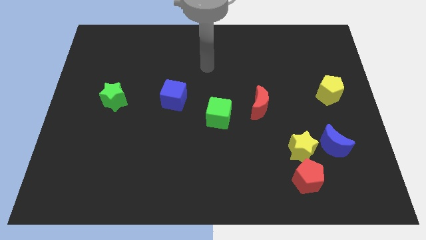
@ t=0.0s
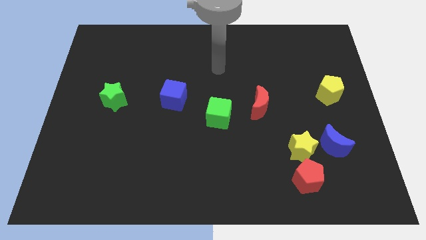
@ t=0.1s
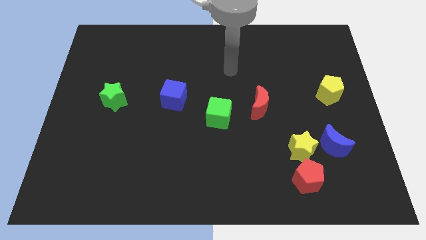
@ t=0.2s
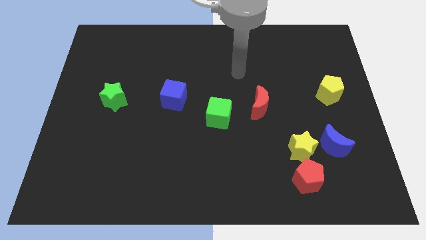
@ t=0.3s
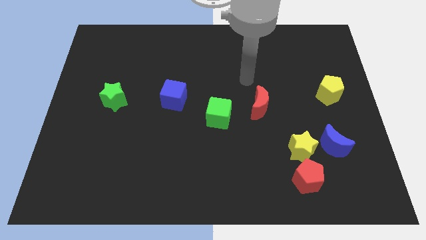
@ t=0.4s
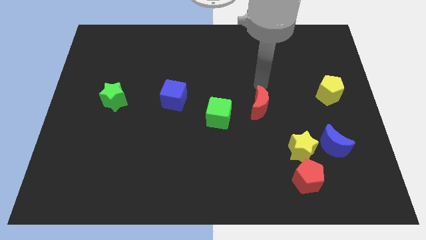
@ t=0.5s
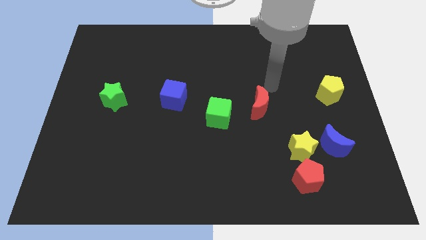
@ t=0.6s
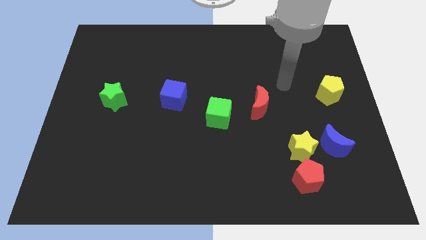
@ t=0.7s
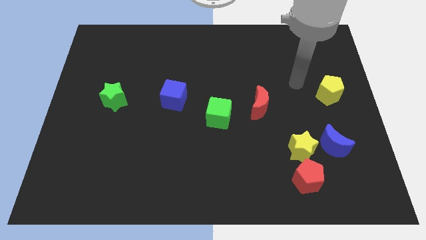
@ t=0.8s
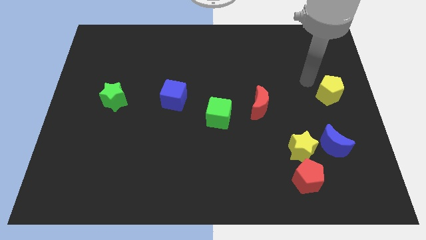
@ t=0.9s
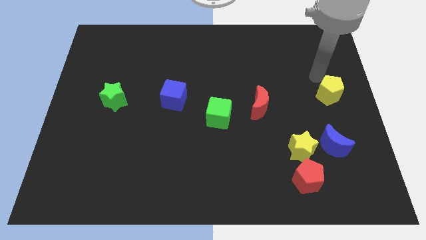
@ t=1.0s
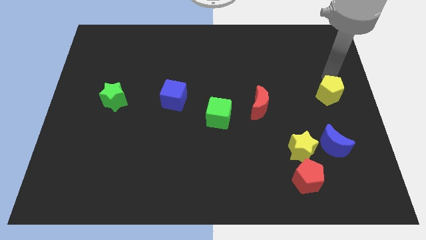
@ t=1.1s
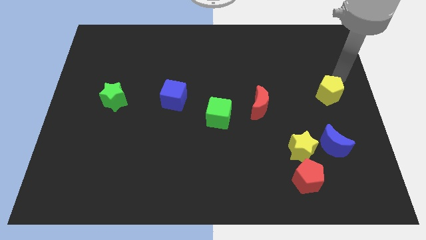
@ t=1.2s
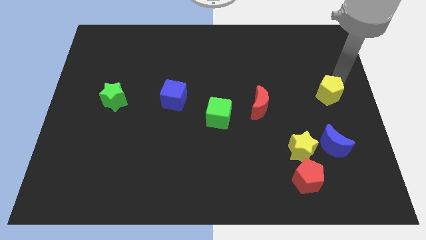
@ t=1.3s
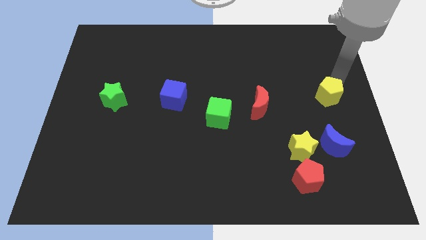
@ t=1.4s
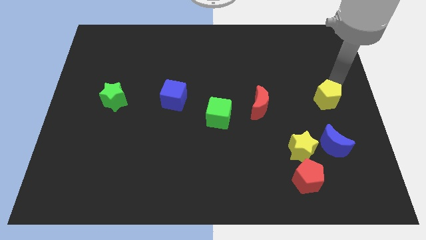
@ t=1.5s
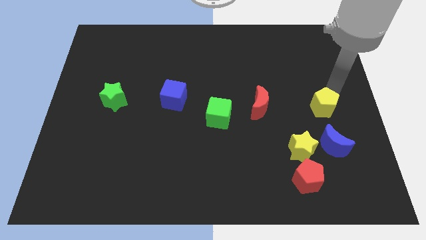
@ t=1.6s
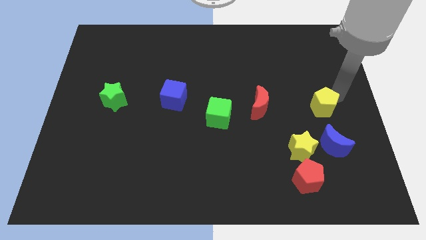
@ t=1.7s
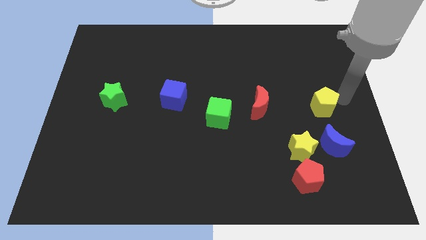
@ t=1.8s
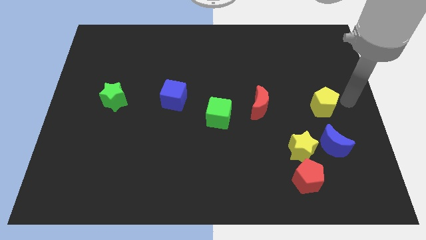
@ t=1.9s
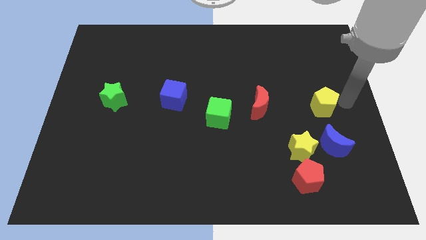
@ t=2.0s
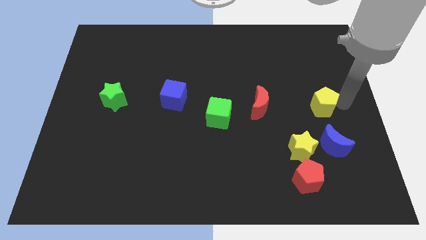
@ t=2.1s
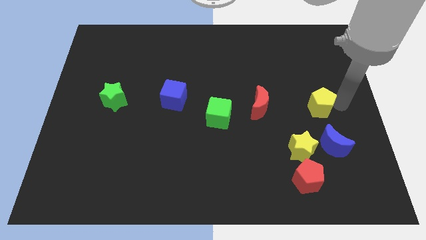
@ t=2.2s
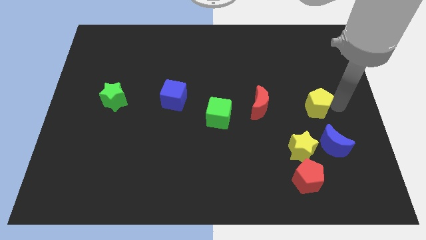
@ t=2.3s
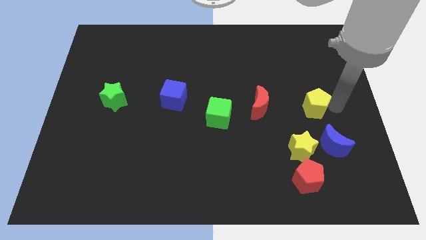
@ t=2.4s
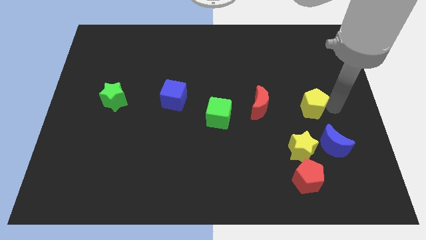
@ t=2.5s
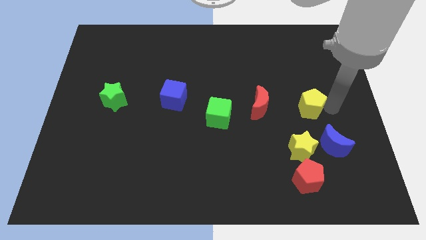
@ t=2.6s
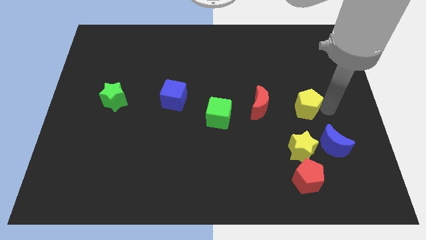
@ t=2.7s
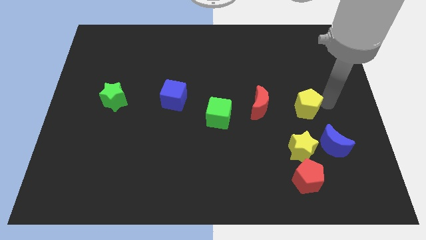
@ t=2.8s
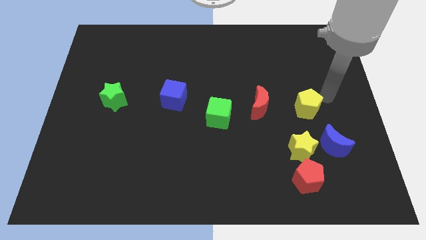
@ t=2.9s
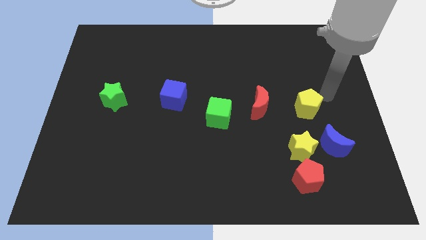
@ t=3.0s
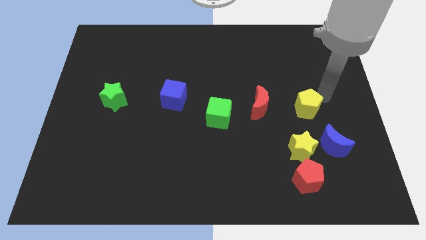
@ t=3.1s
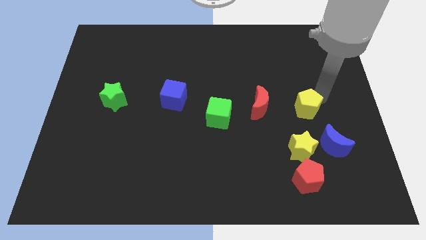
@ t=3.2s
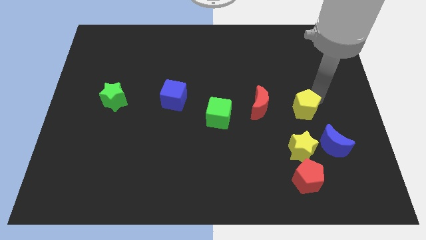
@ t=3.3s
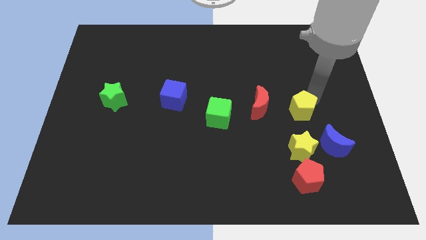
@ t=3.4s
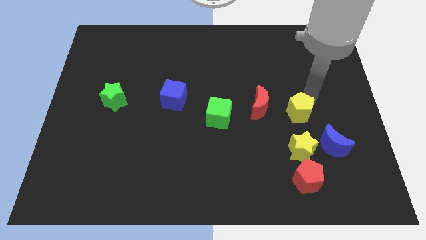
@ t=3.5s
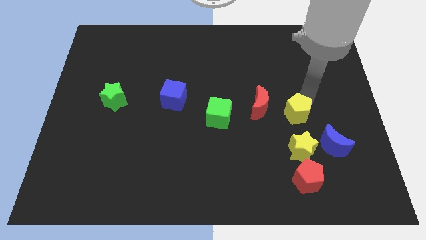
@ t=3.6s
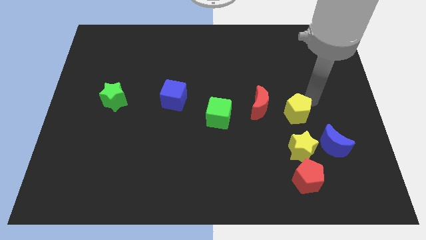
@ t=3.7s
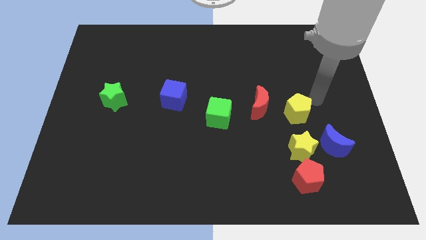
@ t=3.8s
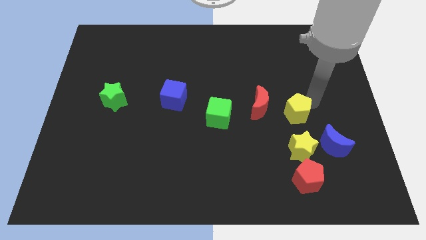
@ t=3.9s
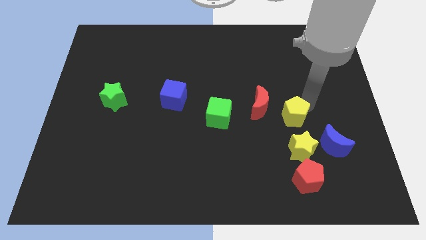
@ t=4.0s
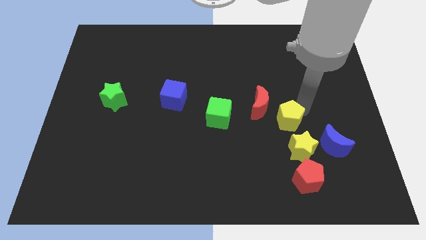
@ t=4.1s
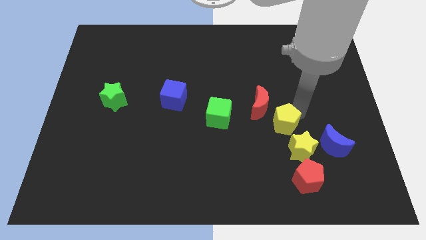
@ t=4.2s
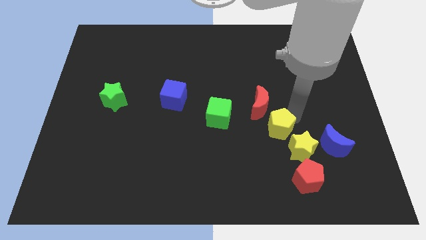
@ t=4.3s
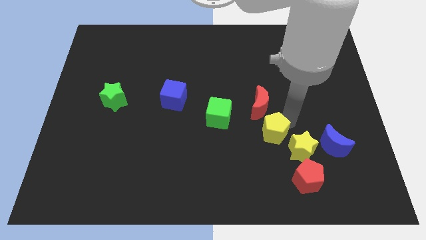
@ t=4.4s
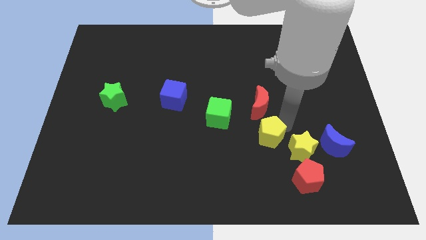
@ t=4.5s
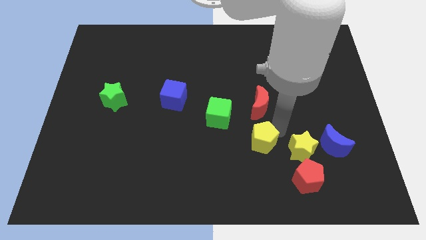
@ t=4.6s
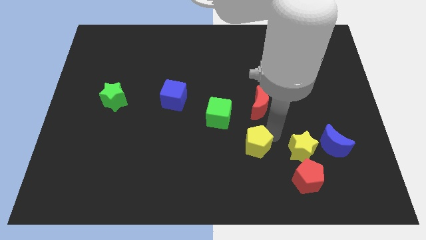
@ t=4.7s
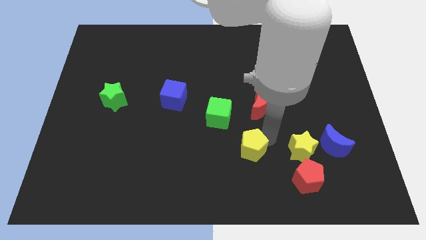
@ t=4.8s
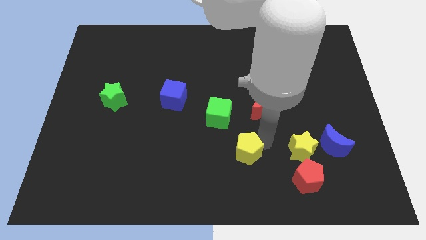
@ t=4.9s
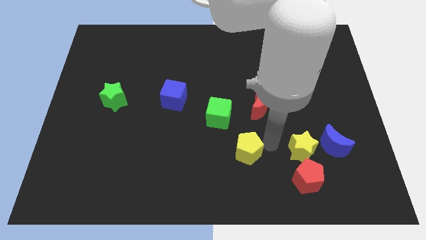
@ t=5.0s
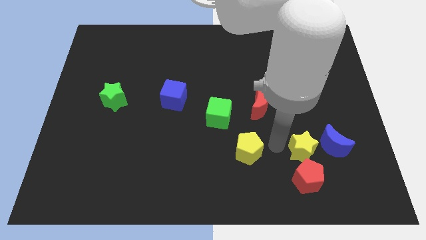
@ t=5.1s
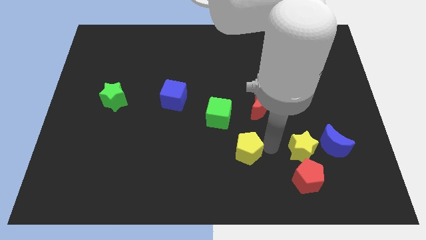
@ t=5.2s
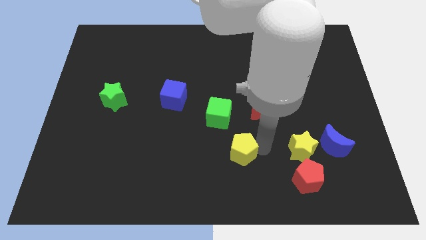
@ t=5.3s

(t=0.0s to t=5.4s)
put the yellow pentagon to the bottom of the green cube

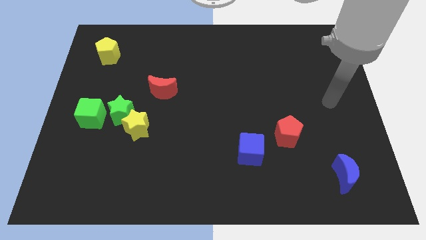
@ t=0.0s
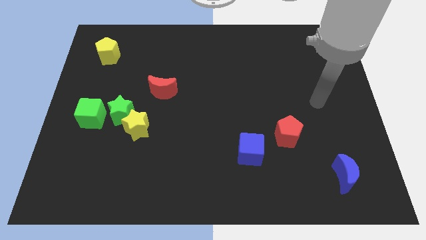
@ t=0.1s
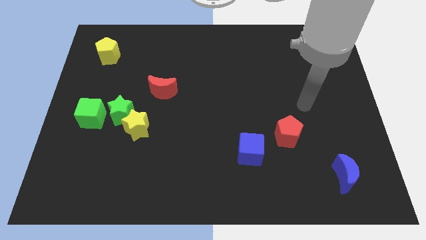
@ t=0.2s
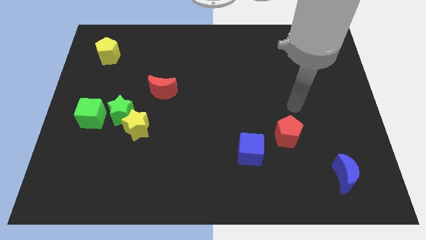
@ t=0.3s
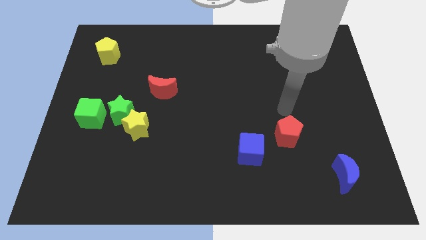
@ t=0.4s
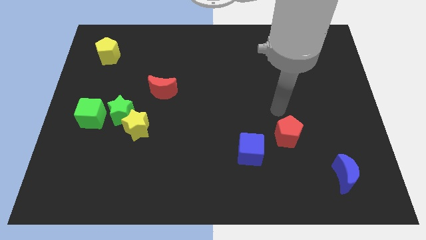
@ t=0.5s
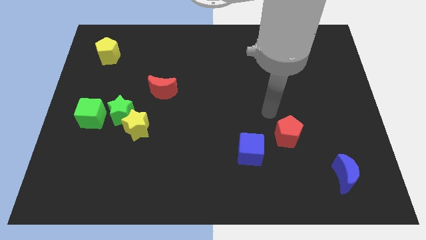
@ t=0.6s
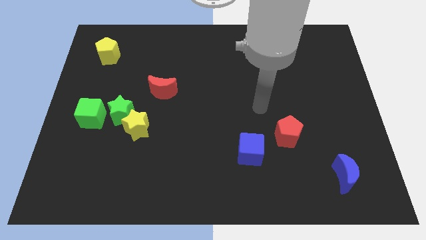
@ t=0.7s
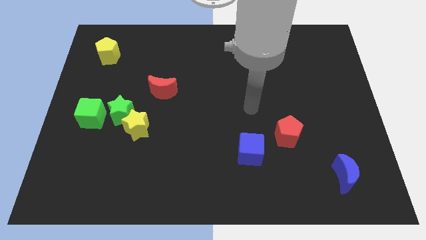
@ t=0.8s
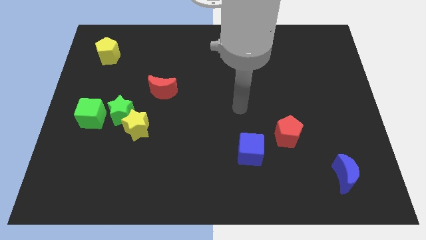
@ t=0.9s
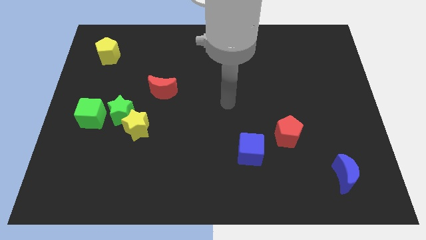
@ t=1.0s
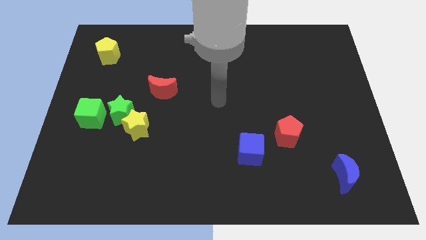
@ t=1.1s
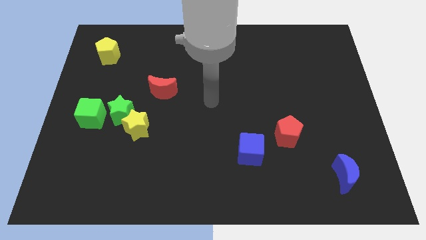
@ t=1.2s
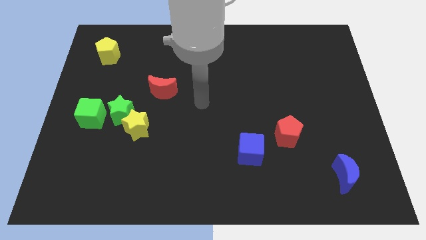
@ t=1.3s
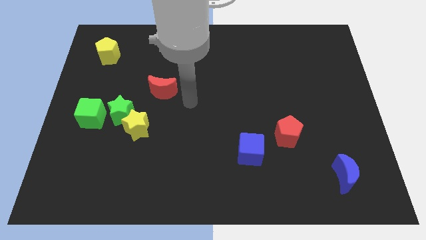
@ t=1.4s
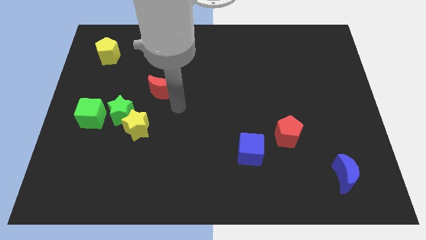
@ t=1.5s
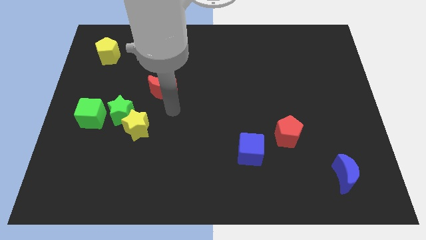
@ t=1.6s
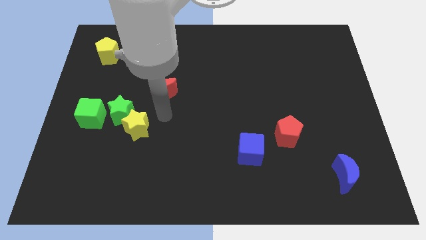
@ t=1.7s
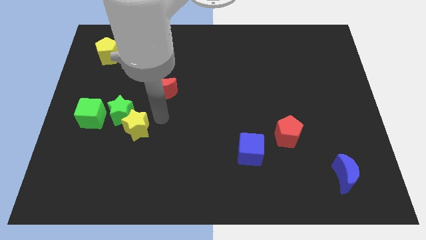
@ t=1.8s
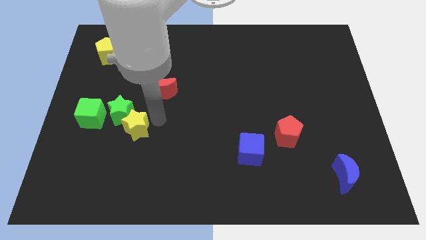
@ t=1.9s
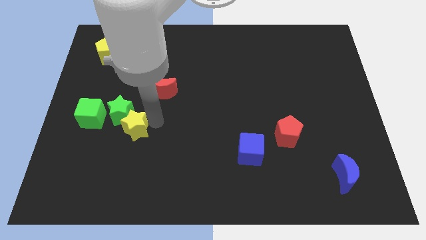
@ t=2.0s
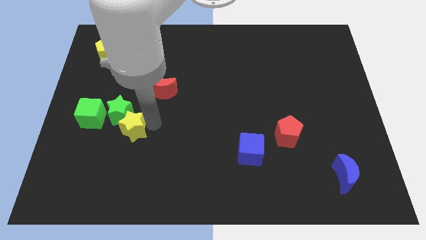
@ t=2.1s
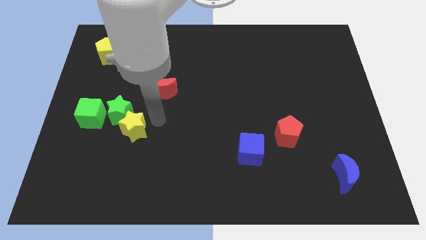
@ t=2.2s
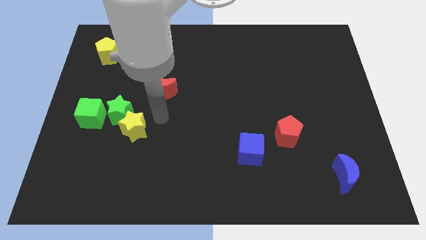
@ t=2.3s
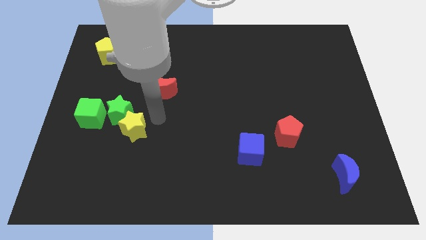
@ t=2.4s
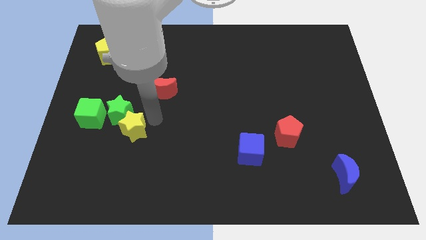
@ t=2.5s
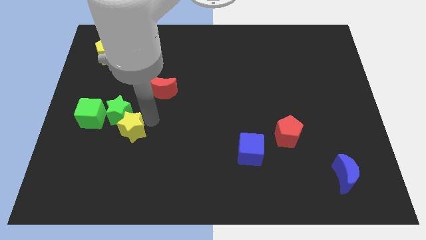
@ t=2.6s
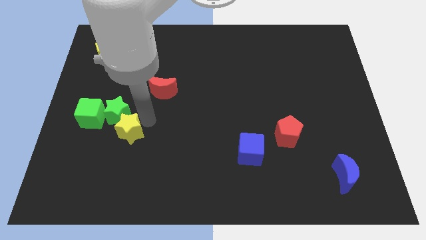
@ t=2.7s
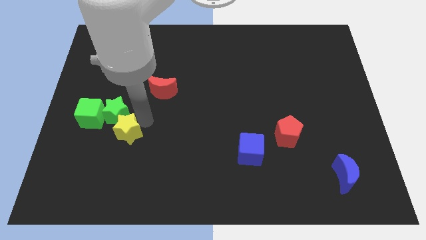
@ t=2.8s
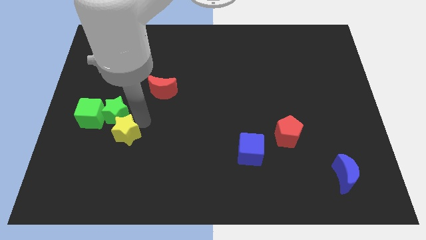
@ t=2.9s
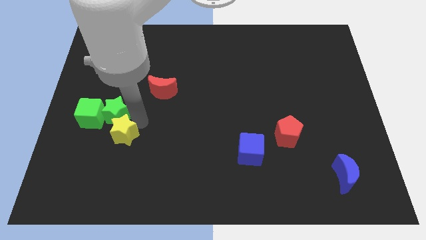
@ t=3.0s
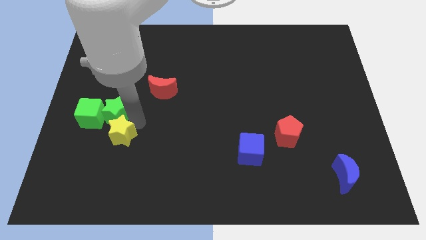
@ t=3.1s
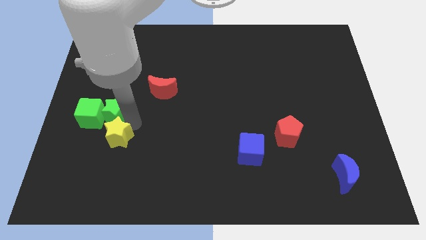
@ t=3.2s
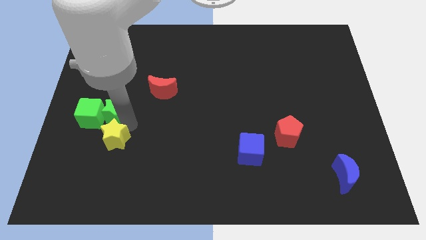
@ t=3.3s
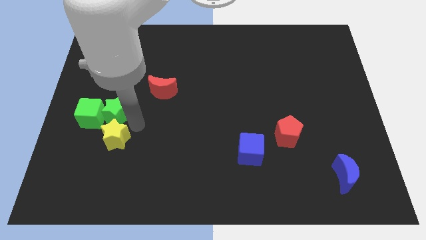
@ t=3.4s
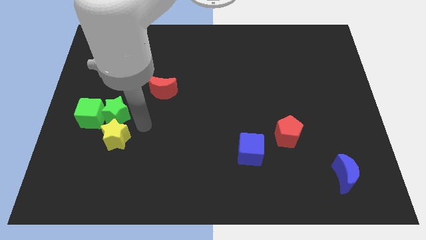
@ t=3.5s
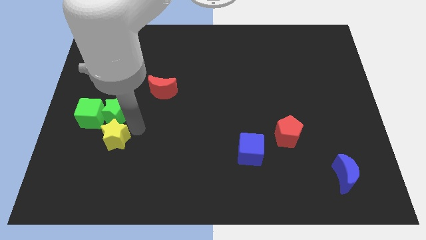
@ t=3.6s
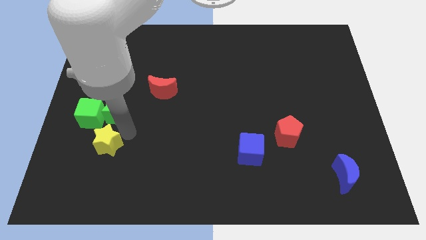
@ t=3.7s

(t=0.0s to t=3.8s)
put the yellow star to the bottom of the green cube
